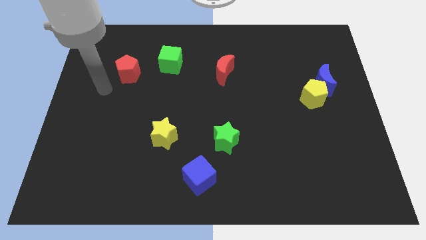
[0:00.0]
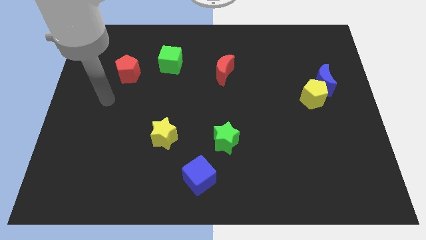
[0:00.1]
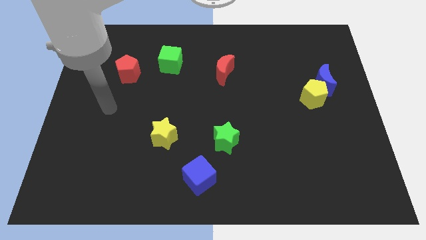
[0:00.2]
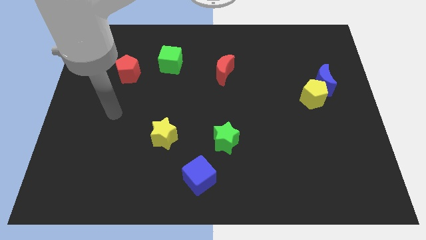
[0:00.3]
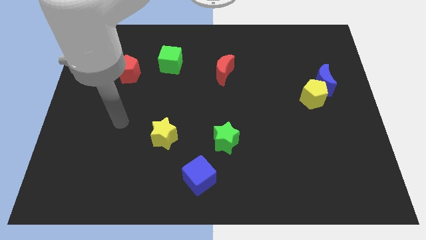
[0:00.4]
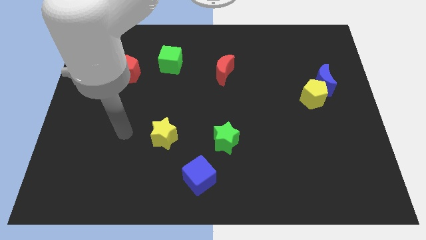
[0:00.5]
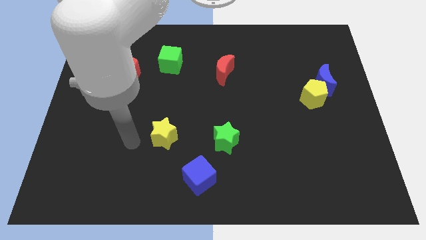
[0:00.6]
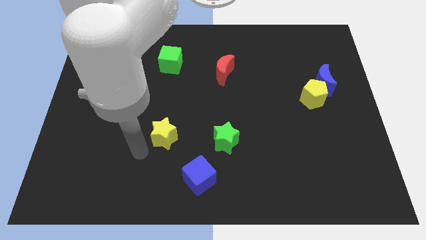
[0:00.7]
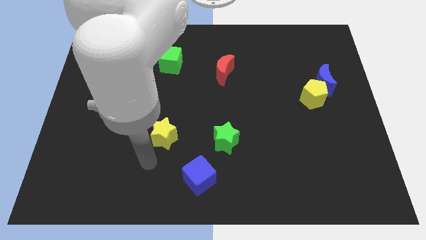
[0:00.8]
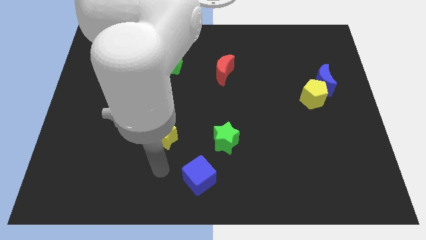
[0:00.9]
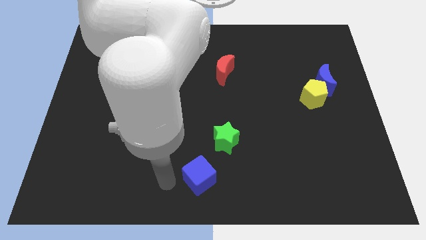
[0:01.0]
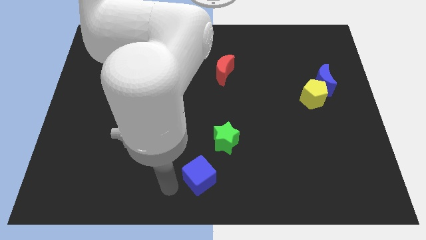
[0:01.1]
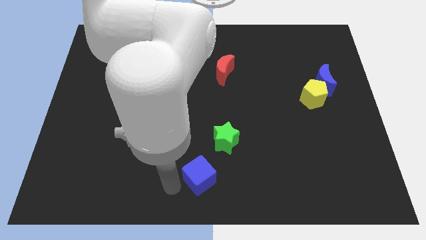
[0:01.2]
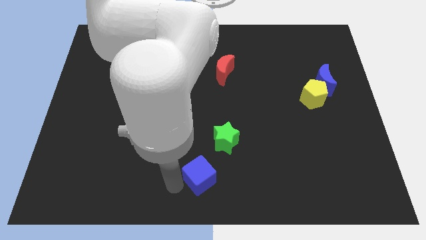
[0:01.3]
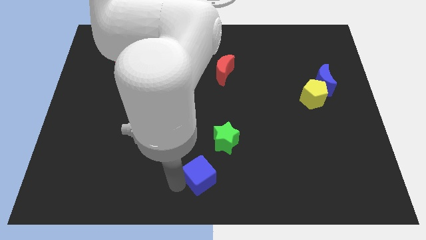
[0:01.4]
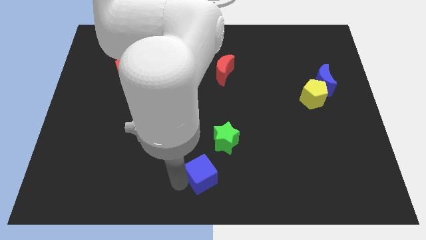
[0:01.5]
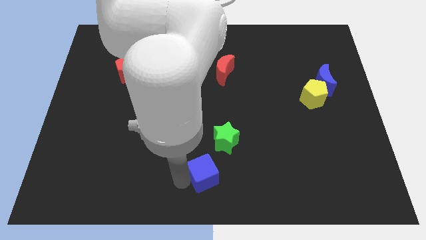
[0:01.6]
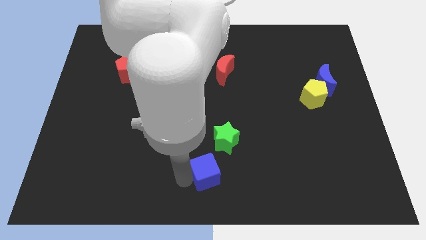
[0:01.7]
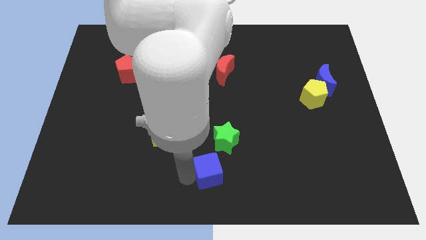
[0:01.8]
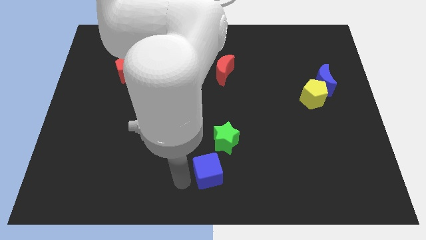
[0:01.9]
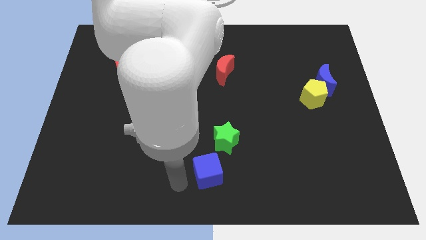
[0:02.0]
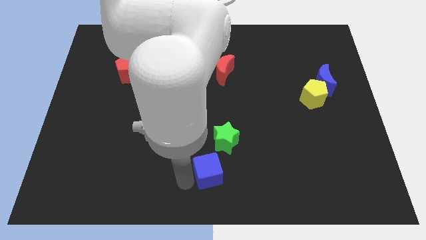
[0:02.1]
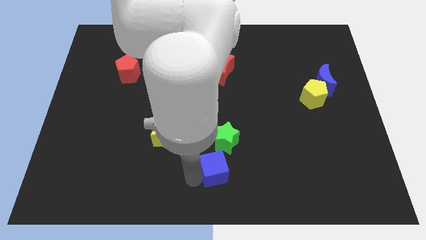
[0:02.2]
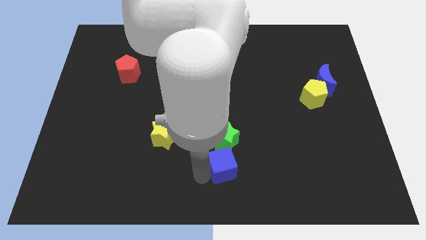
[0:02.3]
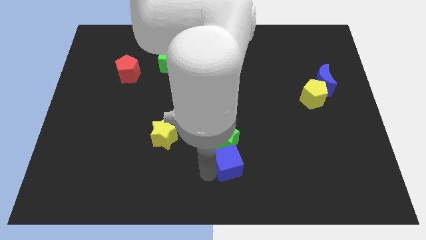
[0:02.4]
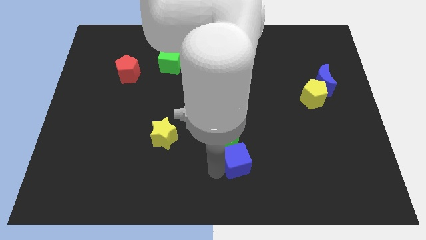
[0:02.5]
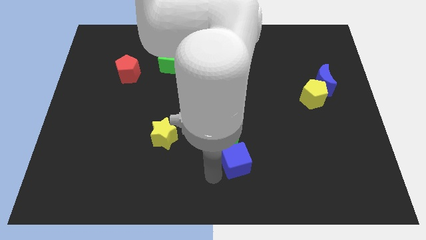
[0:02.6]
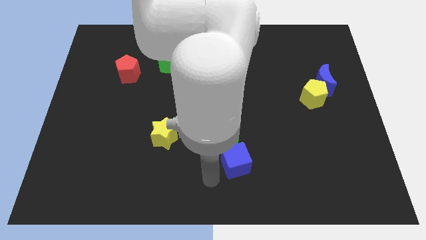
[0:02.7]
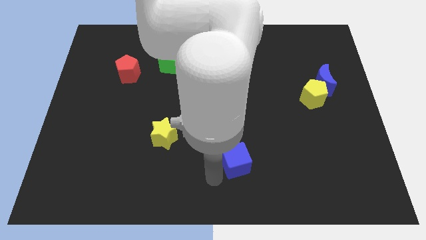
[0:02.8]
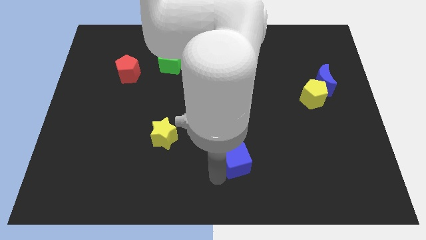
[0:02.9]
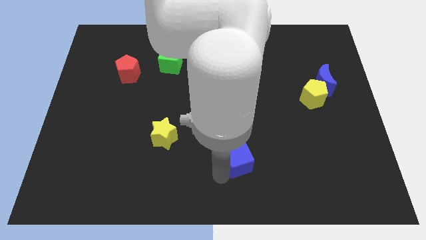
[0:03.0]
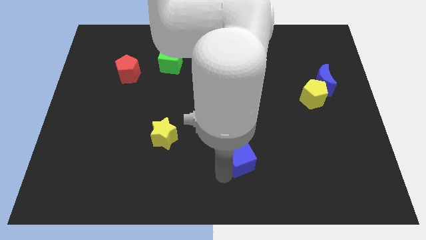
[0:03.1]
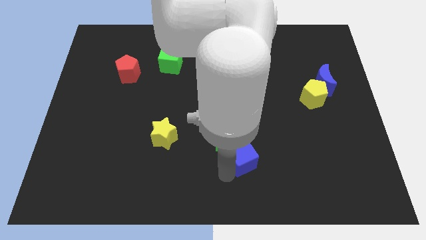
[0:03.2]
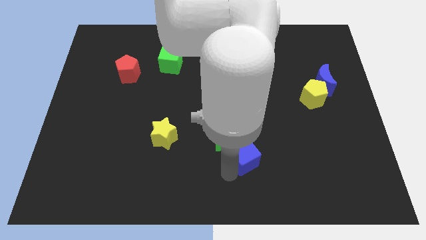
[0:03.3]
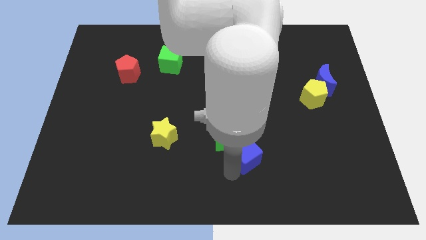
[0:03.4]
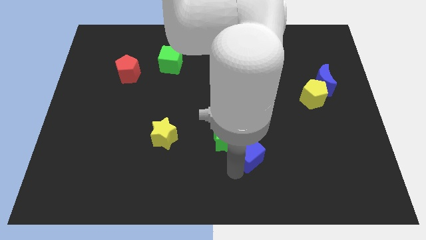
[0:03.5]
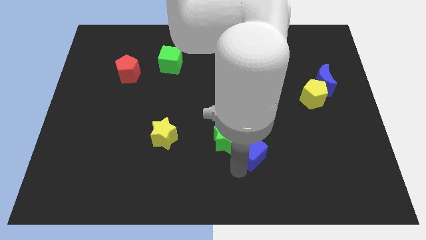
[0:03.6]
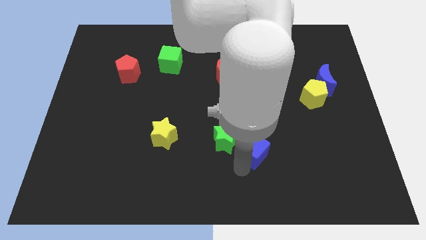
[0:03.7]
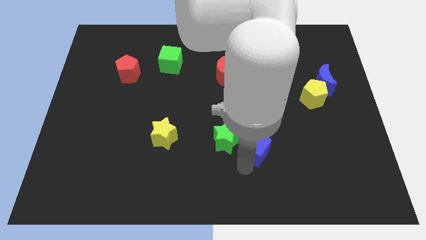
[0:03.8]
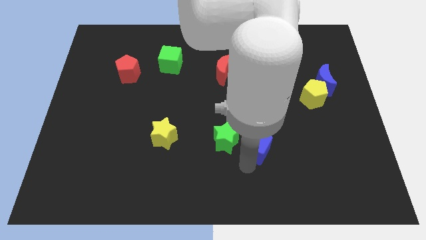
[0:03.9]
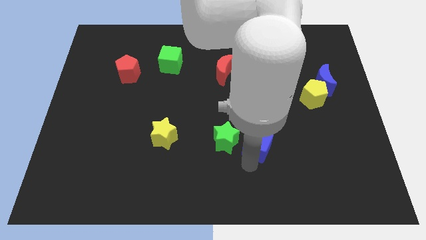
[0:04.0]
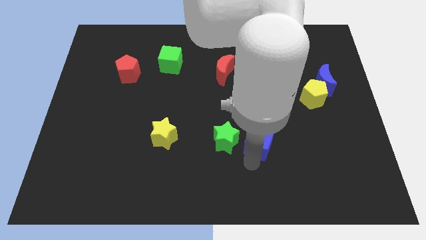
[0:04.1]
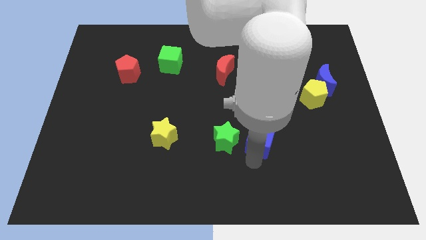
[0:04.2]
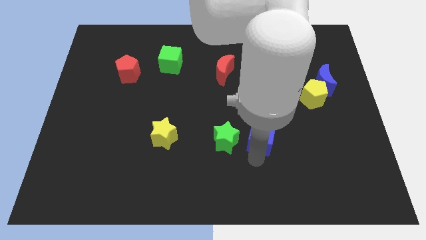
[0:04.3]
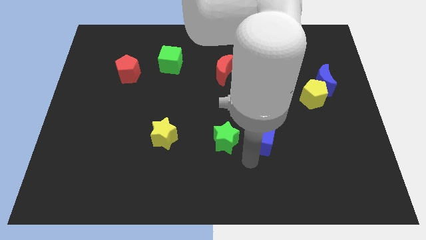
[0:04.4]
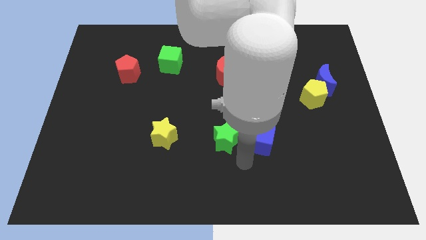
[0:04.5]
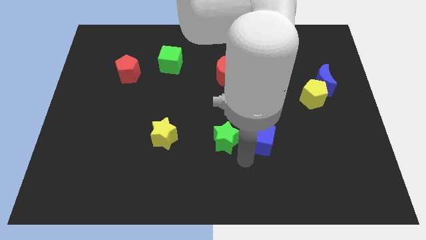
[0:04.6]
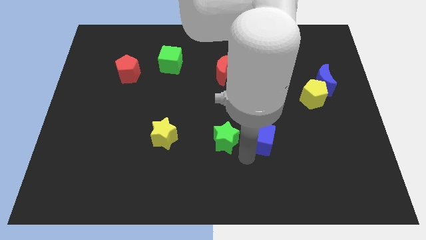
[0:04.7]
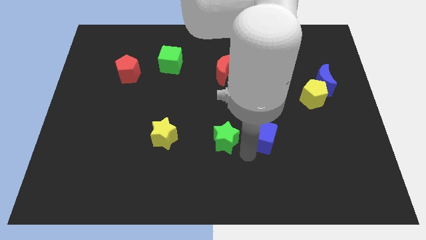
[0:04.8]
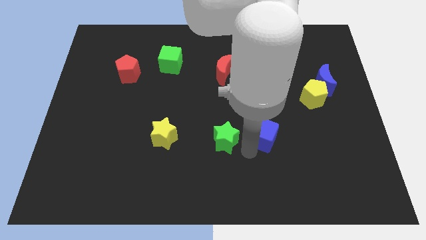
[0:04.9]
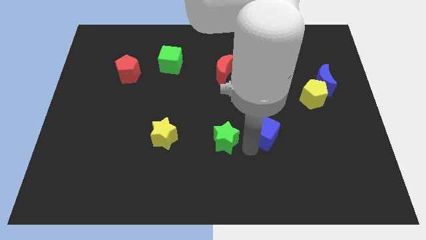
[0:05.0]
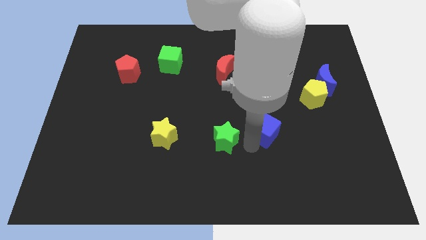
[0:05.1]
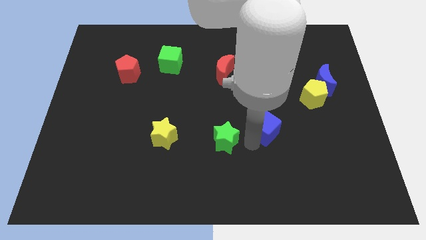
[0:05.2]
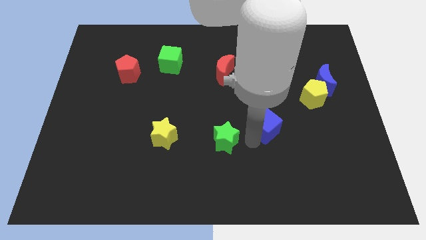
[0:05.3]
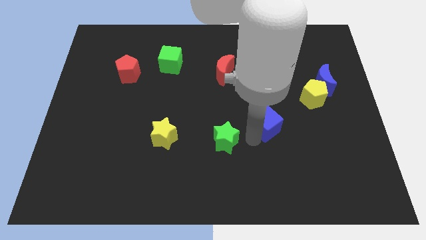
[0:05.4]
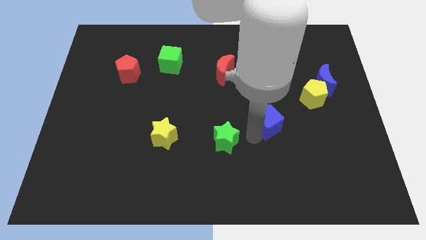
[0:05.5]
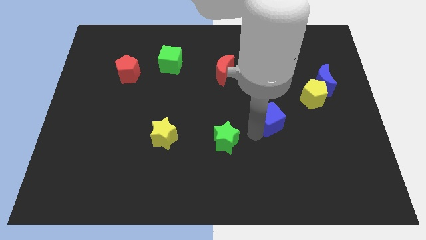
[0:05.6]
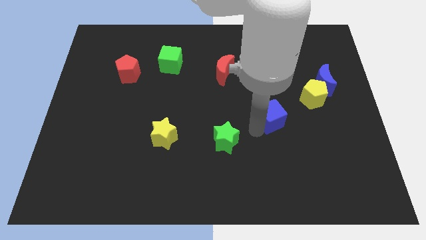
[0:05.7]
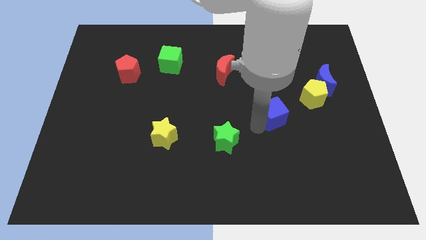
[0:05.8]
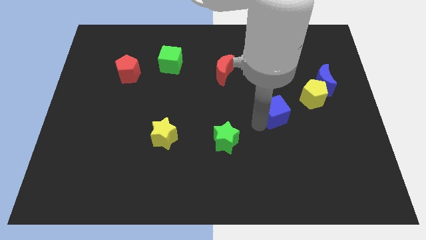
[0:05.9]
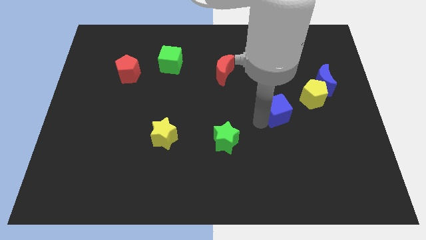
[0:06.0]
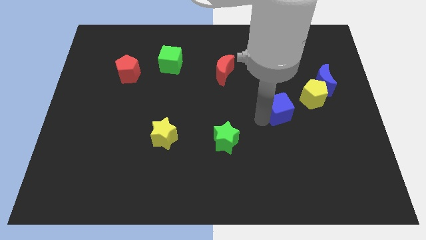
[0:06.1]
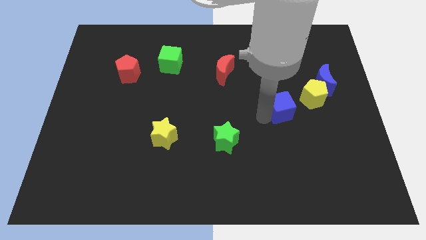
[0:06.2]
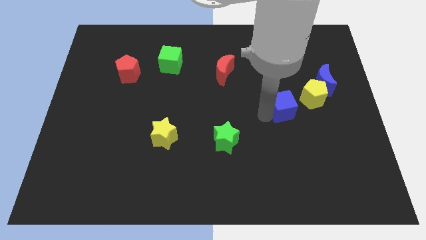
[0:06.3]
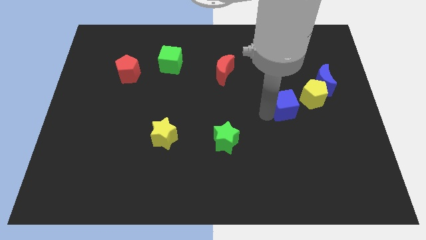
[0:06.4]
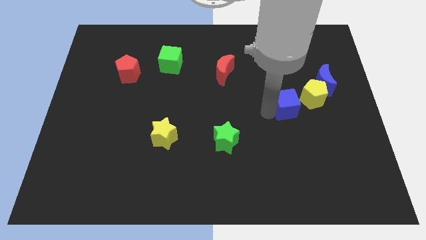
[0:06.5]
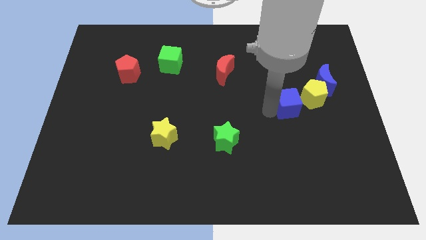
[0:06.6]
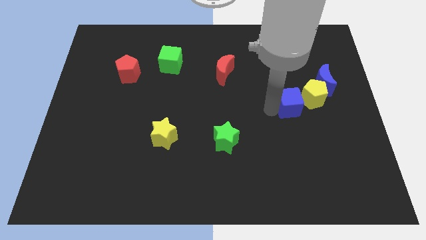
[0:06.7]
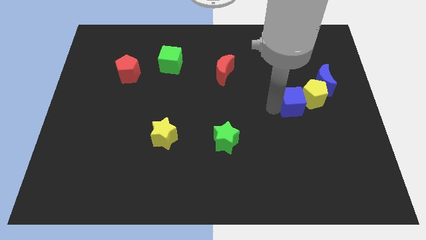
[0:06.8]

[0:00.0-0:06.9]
move the blue cube towards the yellow pentagon

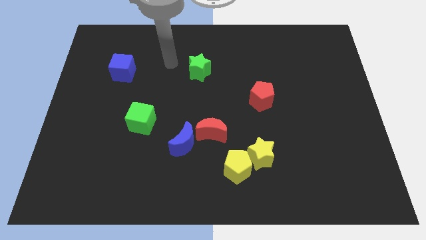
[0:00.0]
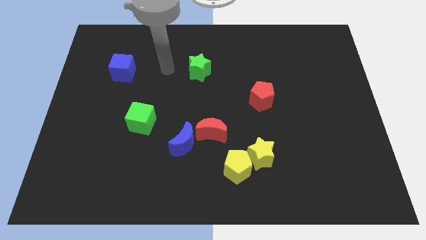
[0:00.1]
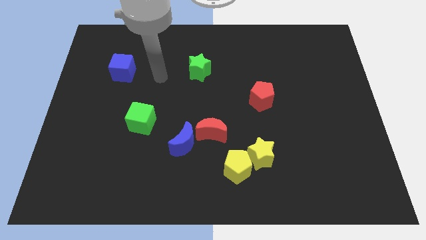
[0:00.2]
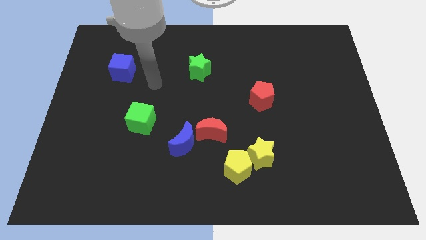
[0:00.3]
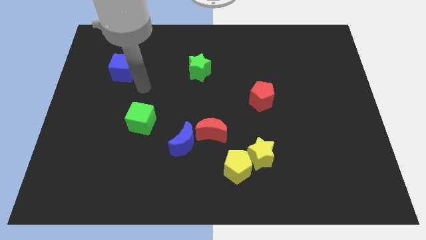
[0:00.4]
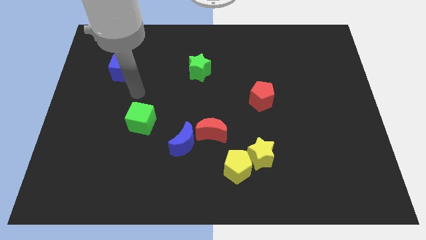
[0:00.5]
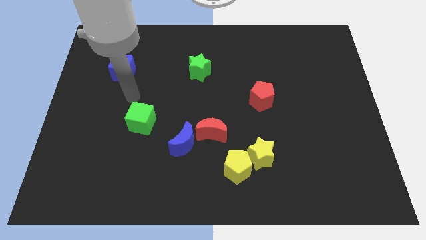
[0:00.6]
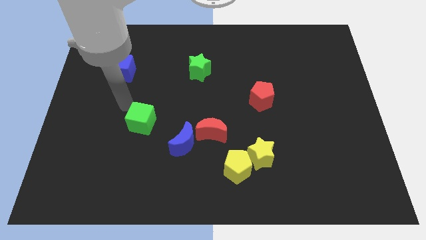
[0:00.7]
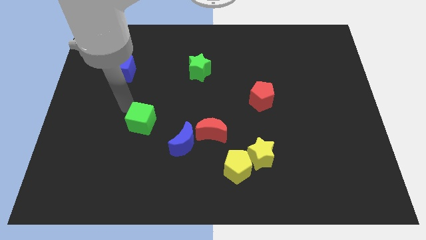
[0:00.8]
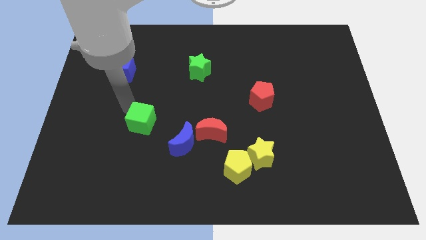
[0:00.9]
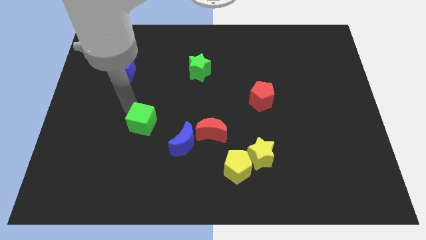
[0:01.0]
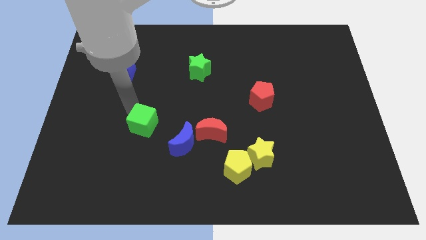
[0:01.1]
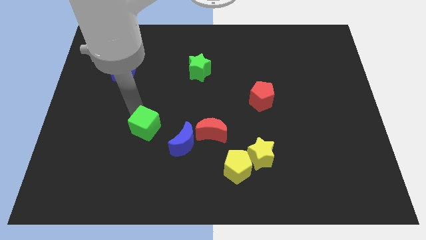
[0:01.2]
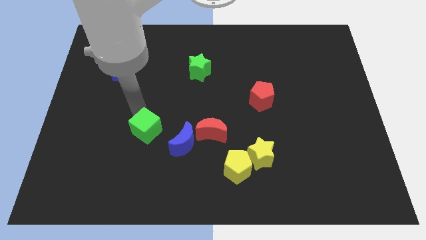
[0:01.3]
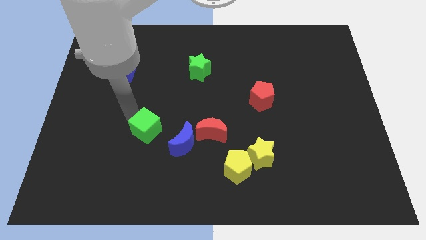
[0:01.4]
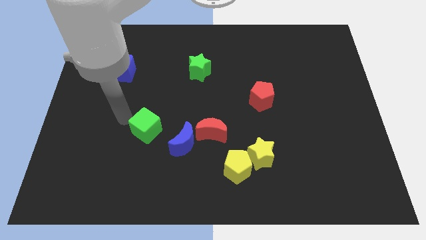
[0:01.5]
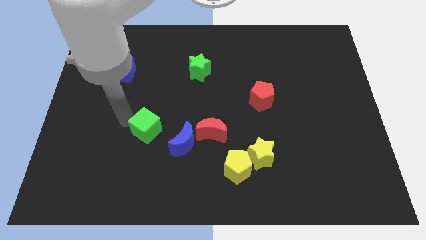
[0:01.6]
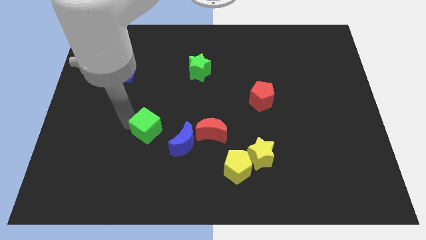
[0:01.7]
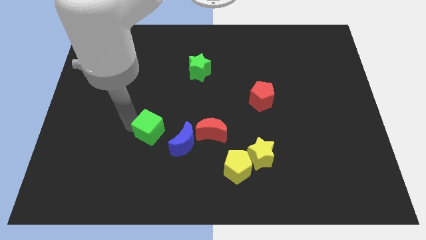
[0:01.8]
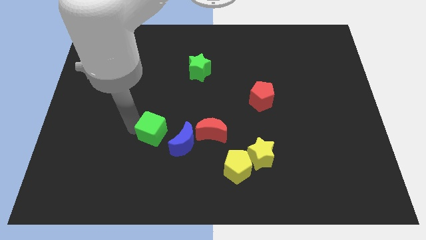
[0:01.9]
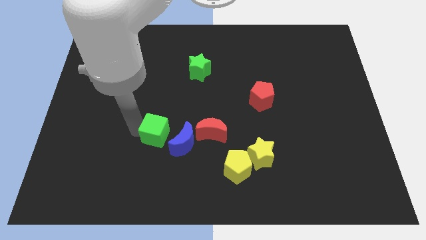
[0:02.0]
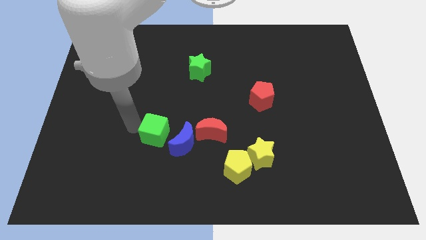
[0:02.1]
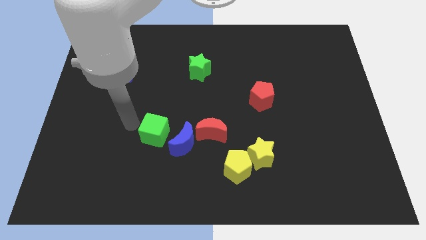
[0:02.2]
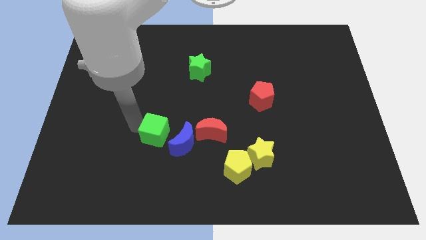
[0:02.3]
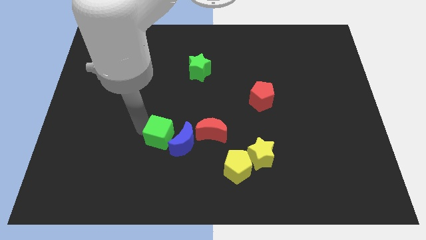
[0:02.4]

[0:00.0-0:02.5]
push the green cube to the blue moon
